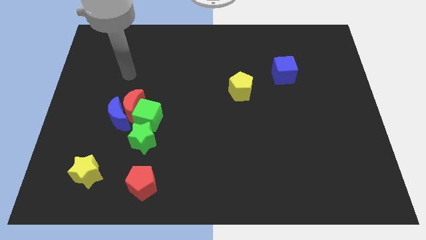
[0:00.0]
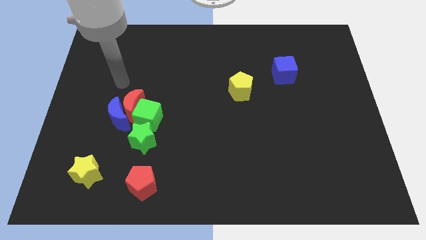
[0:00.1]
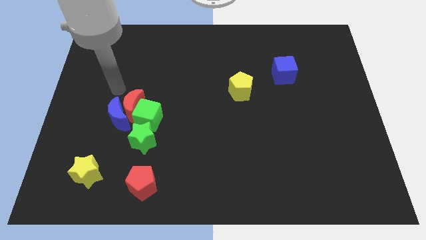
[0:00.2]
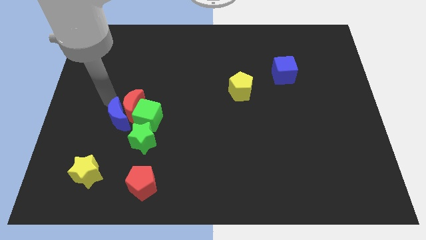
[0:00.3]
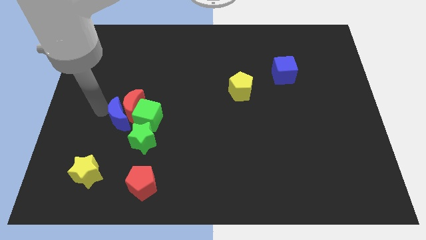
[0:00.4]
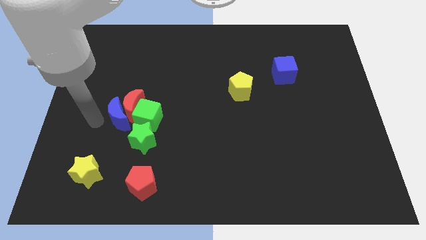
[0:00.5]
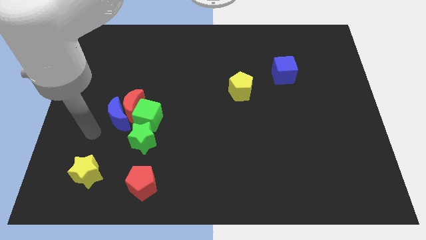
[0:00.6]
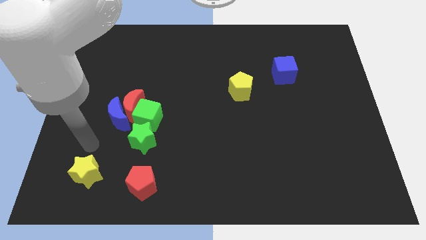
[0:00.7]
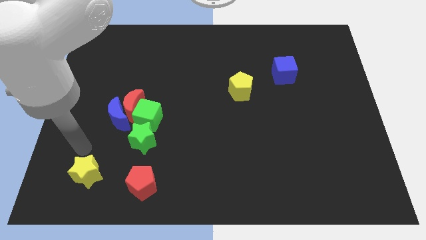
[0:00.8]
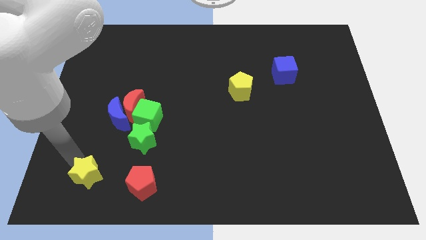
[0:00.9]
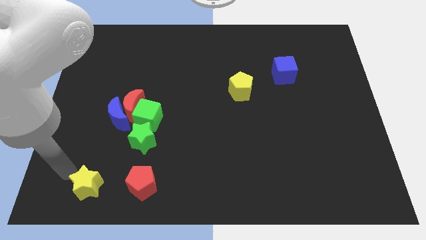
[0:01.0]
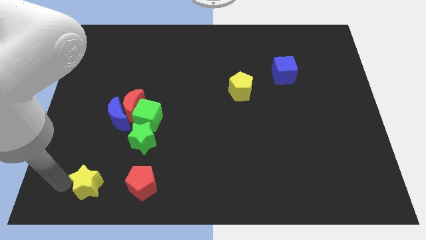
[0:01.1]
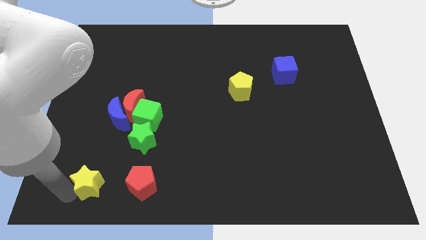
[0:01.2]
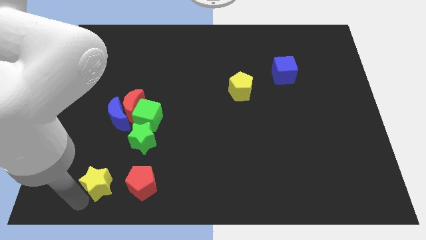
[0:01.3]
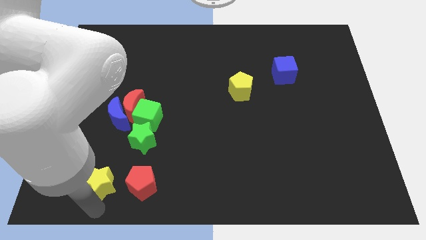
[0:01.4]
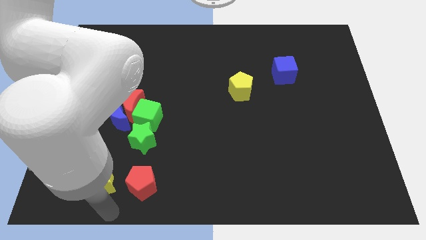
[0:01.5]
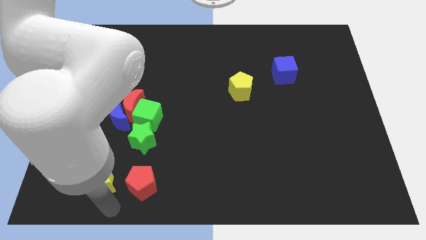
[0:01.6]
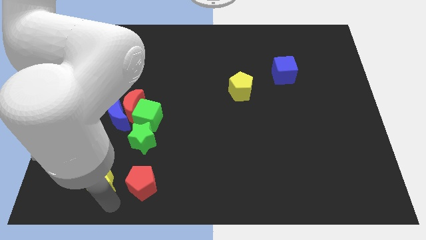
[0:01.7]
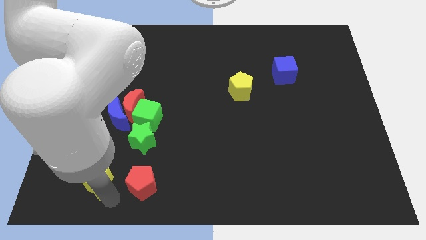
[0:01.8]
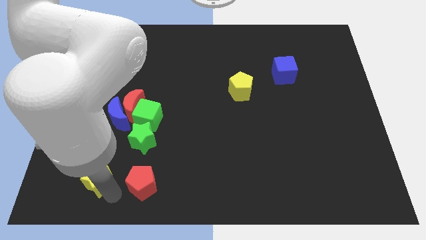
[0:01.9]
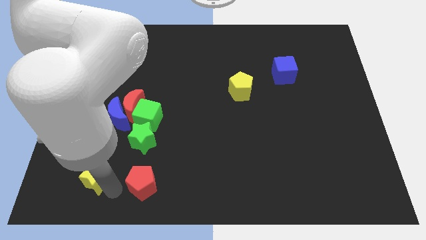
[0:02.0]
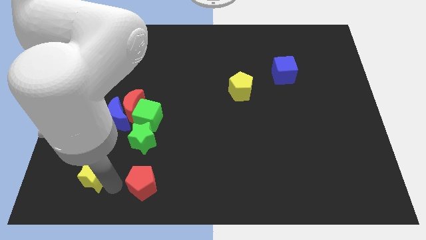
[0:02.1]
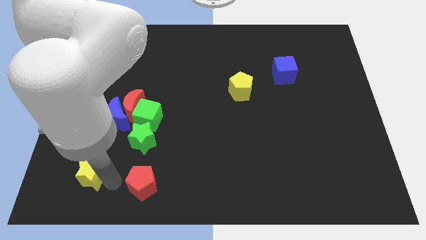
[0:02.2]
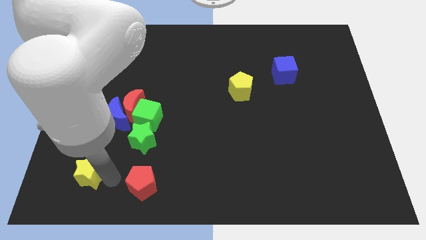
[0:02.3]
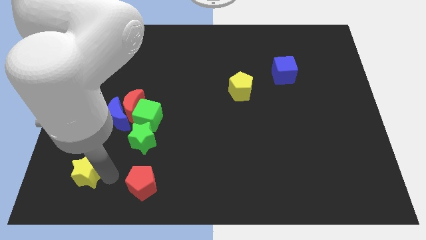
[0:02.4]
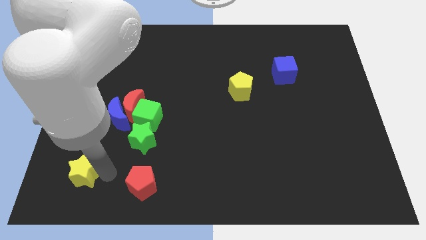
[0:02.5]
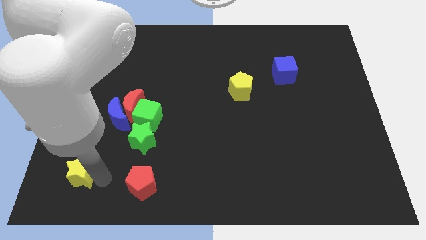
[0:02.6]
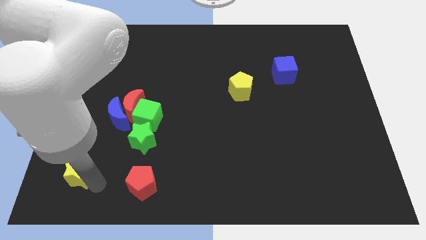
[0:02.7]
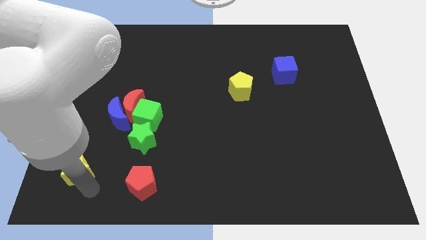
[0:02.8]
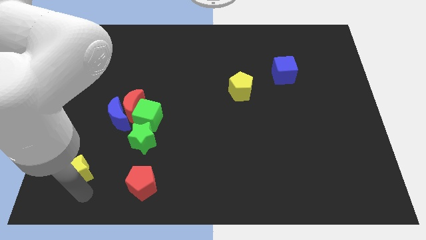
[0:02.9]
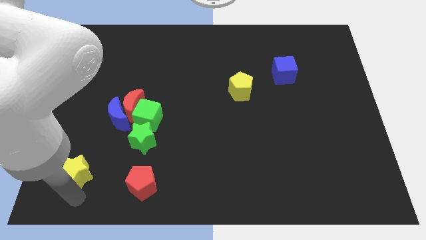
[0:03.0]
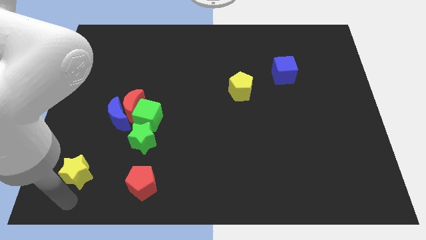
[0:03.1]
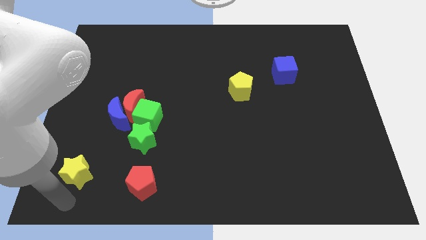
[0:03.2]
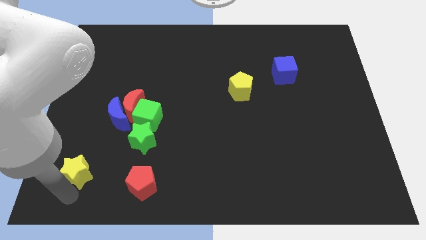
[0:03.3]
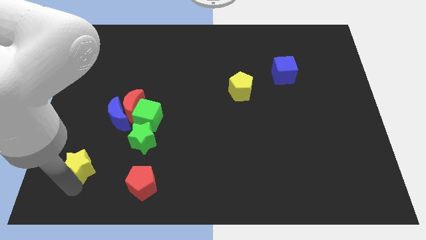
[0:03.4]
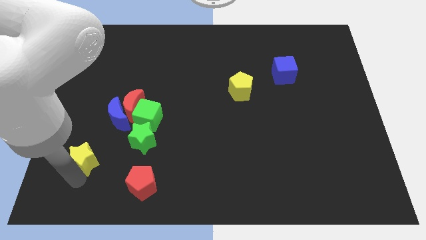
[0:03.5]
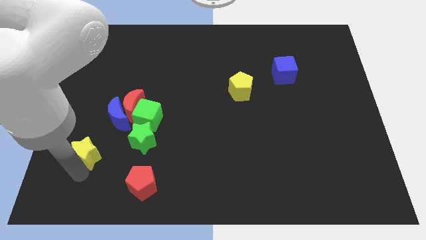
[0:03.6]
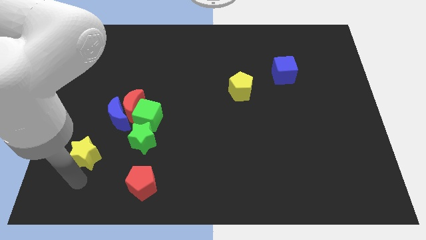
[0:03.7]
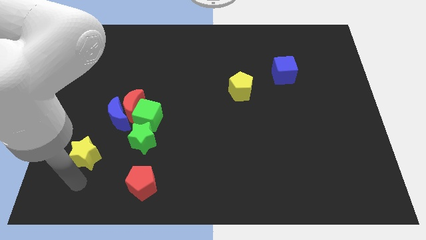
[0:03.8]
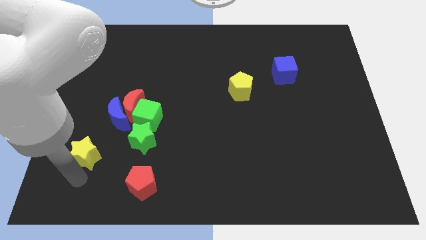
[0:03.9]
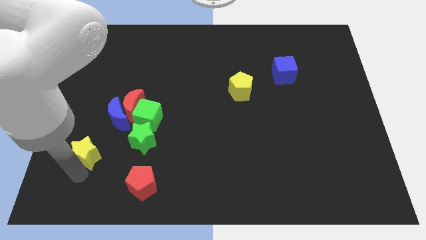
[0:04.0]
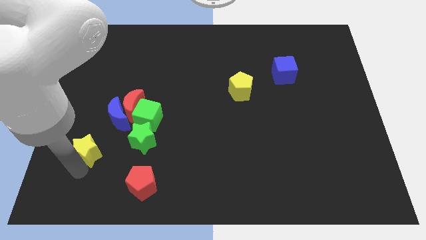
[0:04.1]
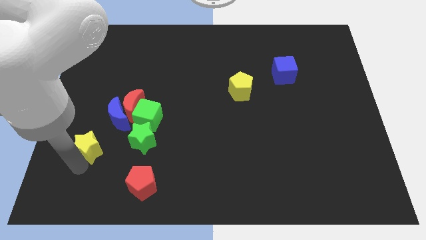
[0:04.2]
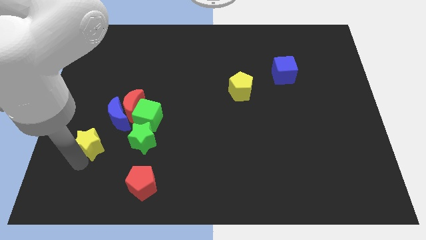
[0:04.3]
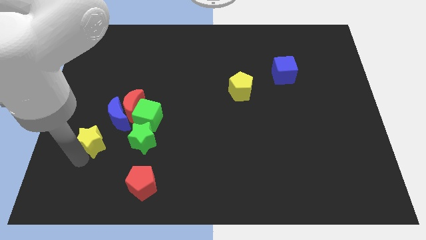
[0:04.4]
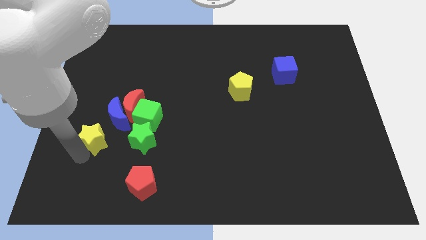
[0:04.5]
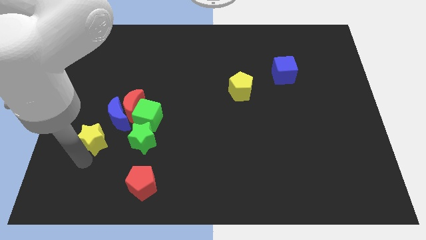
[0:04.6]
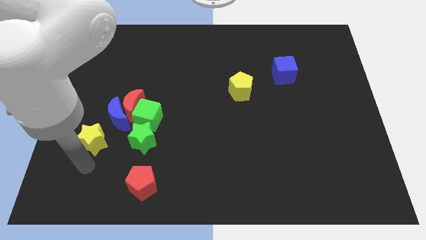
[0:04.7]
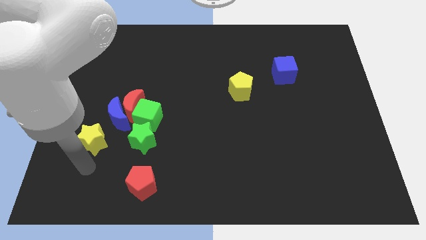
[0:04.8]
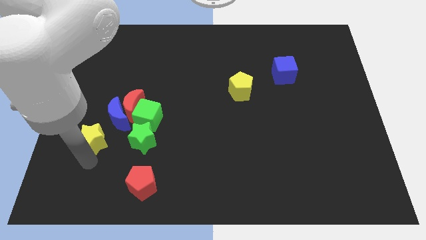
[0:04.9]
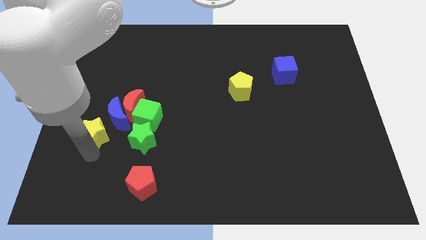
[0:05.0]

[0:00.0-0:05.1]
slide the yellow star left of the green cube

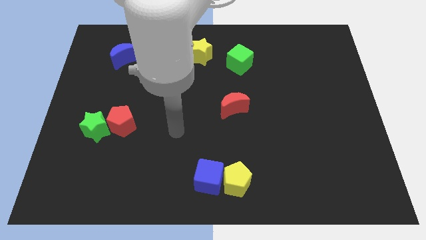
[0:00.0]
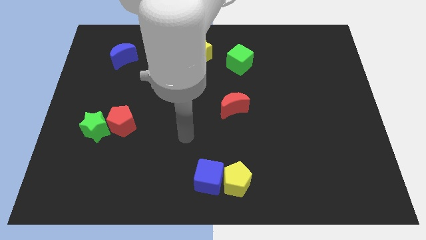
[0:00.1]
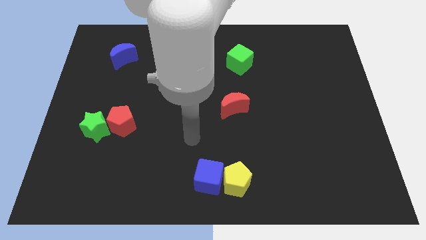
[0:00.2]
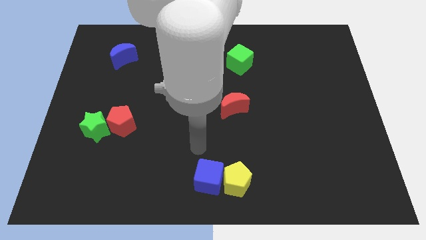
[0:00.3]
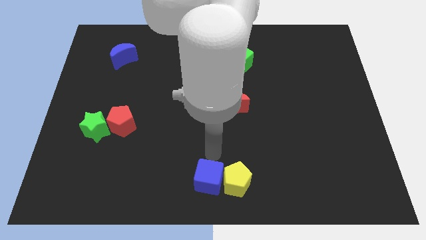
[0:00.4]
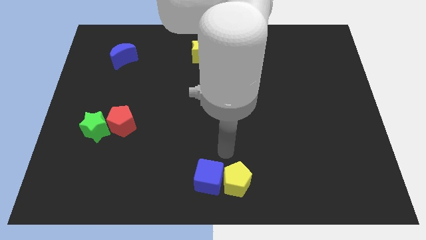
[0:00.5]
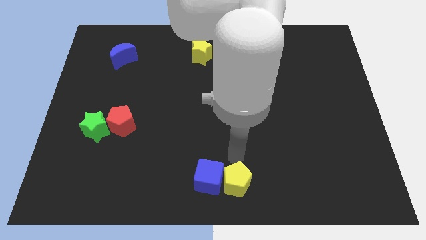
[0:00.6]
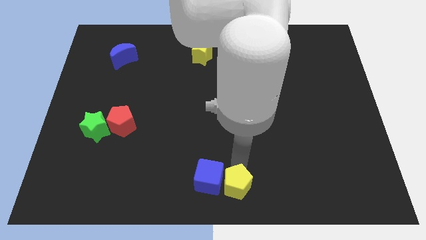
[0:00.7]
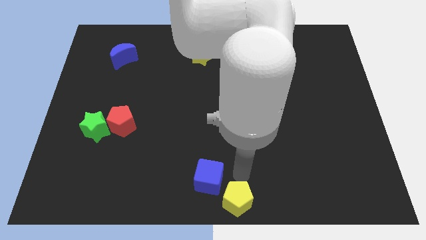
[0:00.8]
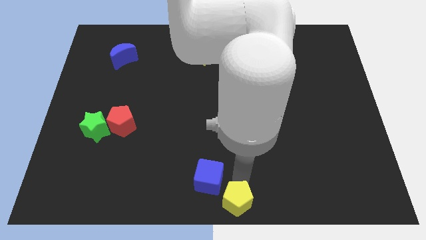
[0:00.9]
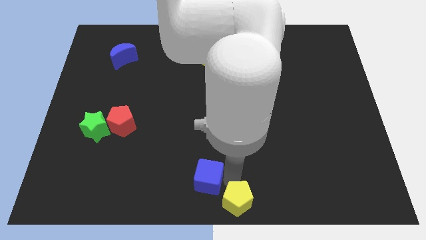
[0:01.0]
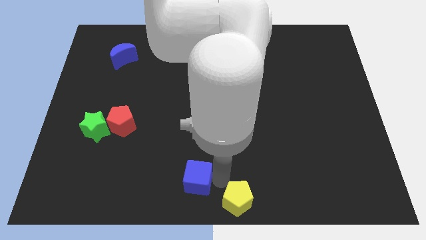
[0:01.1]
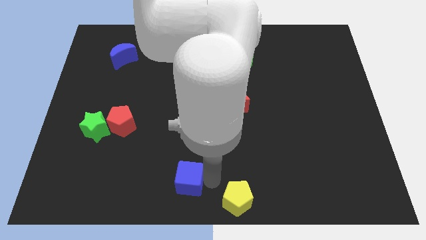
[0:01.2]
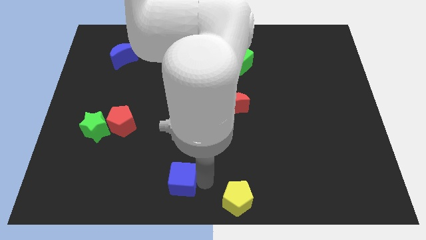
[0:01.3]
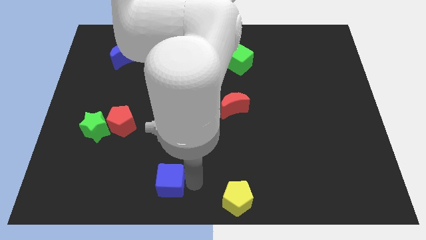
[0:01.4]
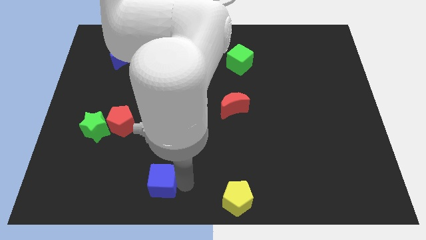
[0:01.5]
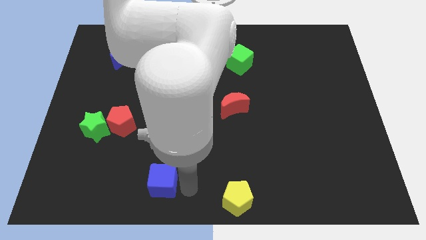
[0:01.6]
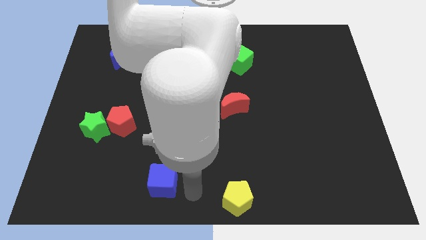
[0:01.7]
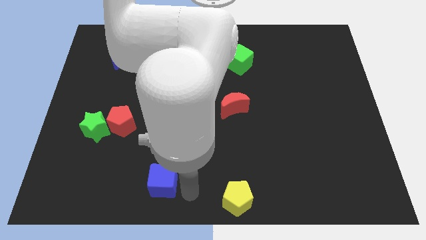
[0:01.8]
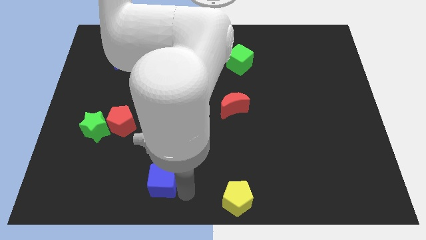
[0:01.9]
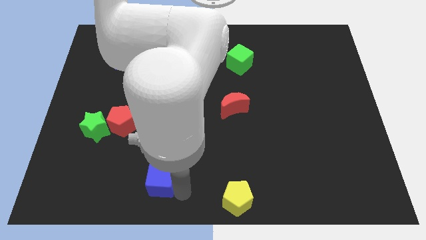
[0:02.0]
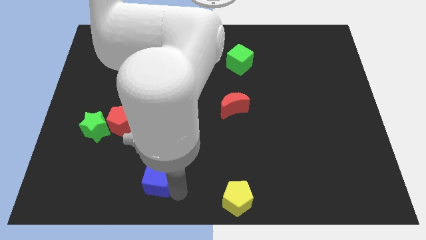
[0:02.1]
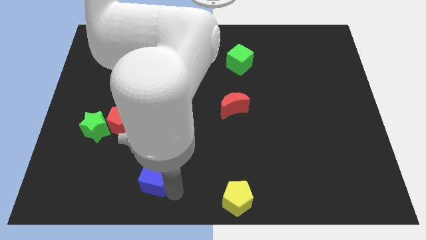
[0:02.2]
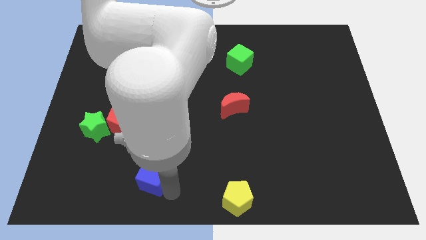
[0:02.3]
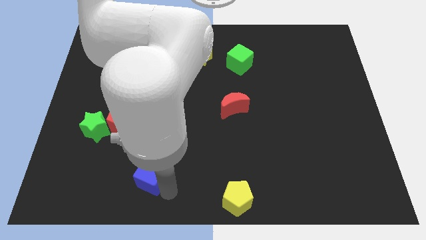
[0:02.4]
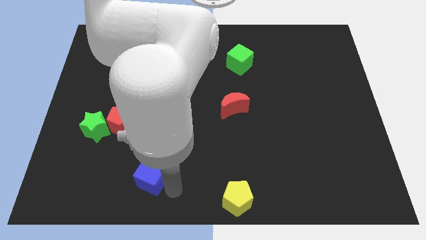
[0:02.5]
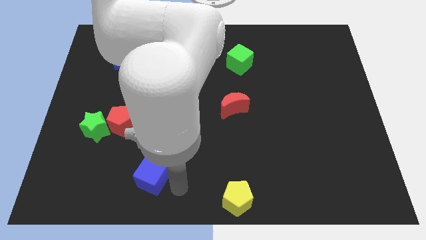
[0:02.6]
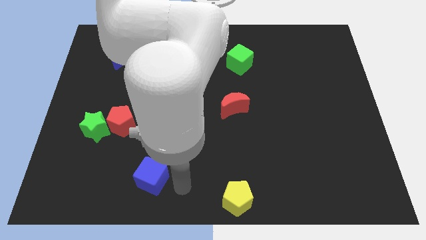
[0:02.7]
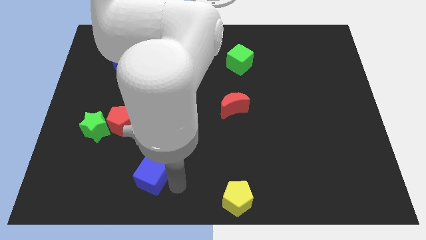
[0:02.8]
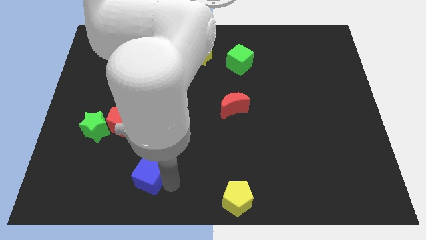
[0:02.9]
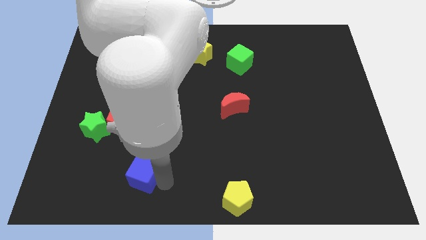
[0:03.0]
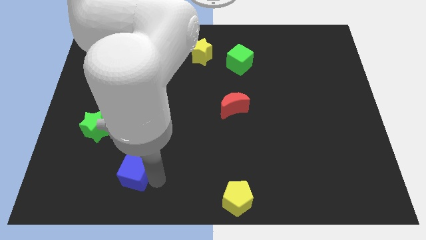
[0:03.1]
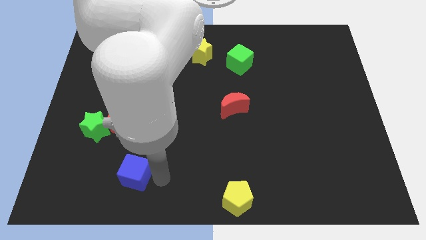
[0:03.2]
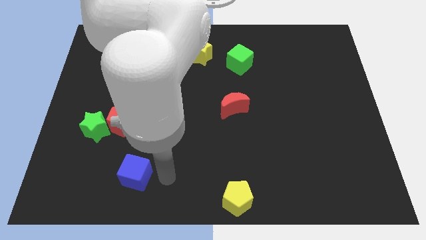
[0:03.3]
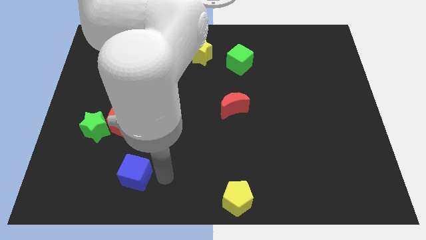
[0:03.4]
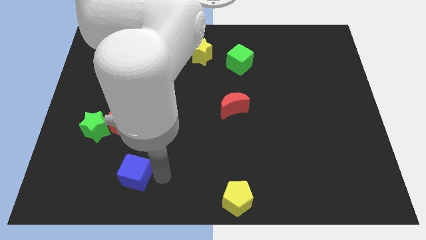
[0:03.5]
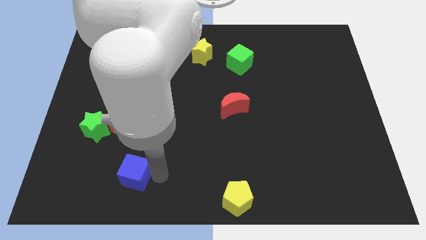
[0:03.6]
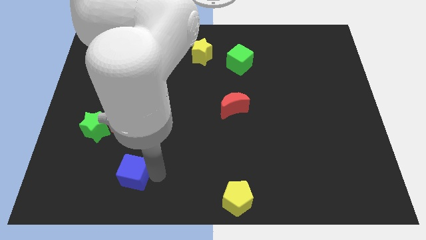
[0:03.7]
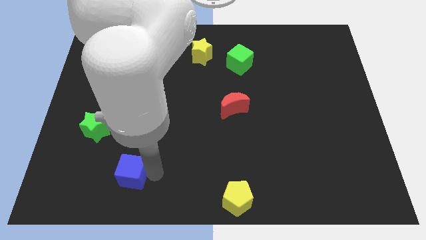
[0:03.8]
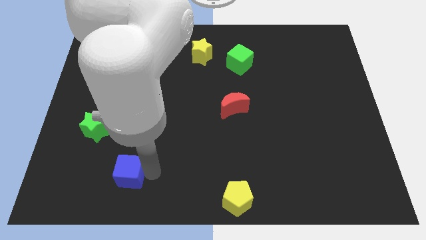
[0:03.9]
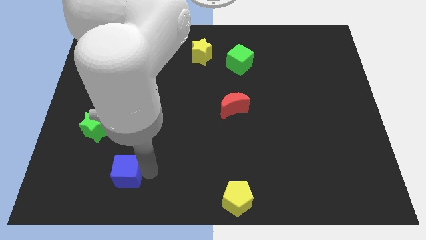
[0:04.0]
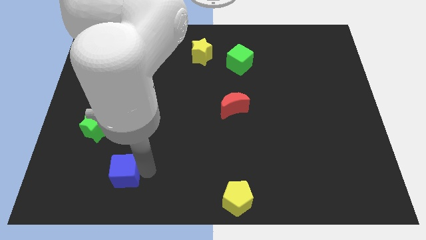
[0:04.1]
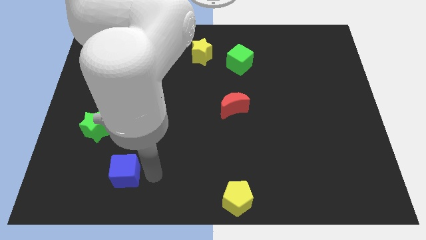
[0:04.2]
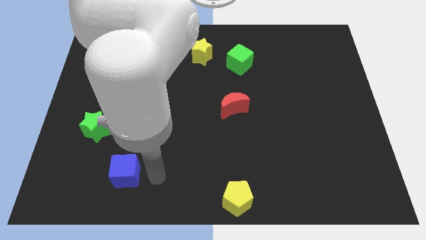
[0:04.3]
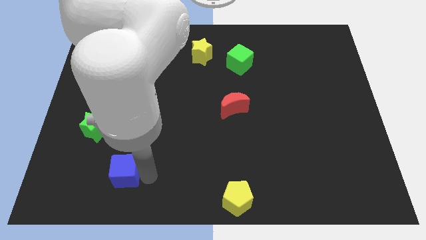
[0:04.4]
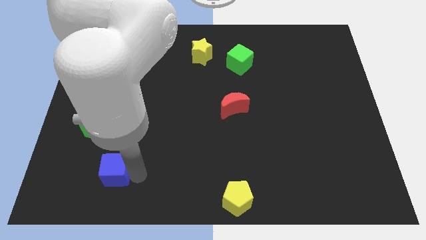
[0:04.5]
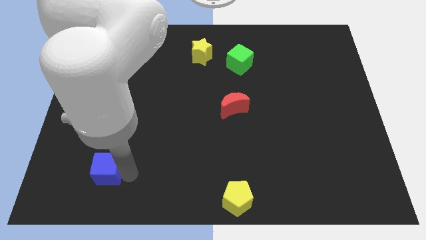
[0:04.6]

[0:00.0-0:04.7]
push the blue cube to the bottom of the green star
